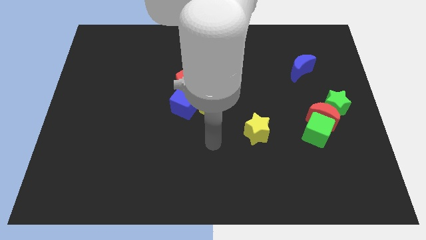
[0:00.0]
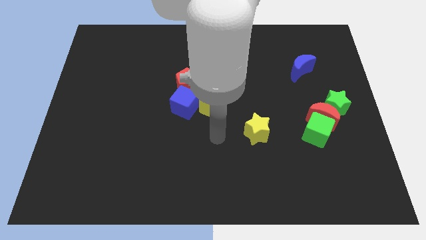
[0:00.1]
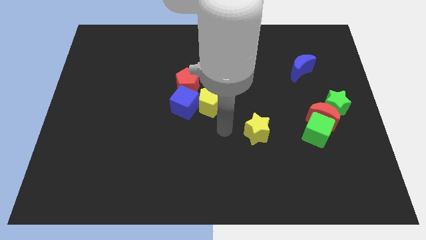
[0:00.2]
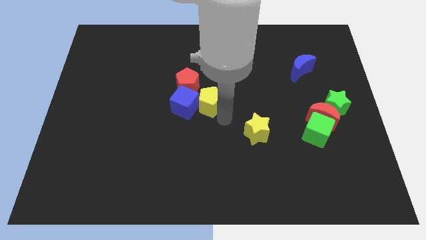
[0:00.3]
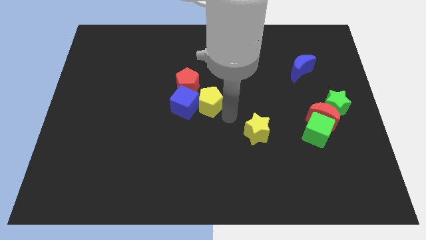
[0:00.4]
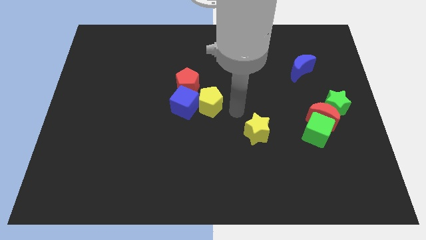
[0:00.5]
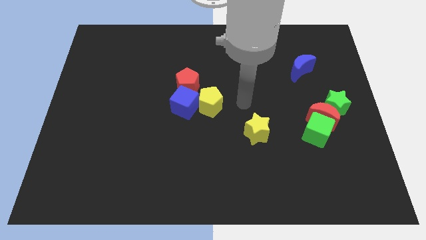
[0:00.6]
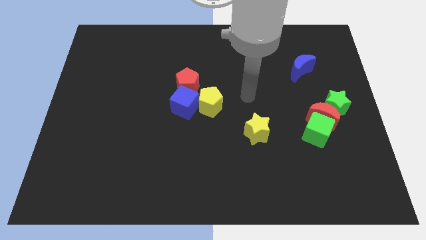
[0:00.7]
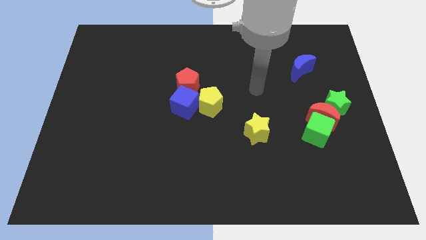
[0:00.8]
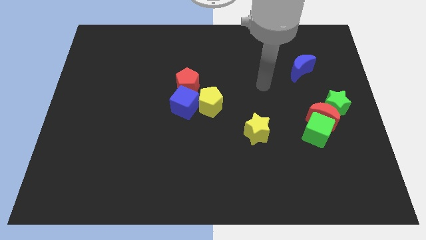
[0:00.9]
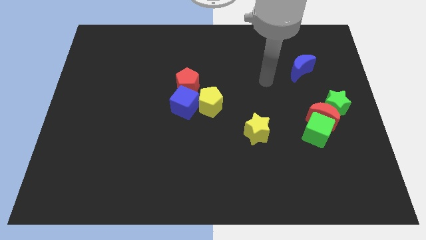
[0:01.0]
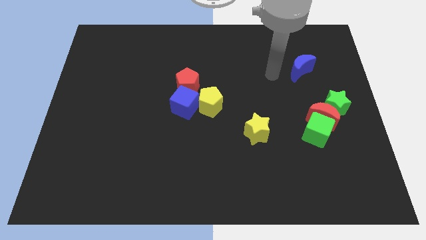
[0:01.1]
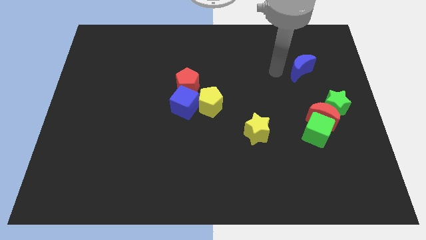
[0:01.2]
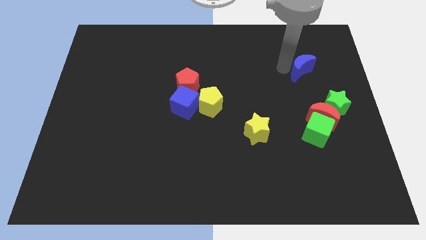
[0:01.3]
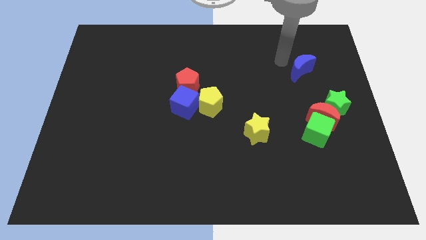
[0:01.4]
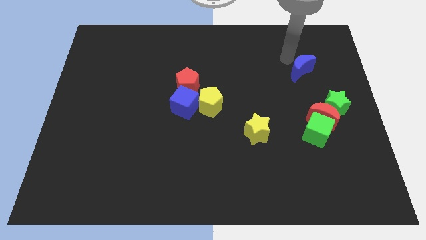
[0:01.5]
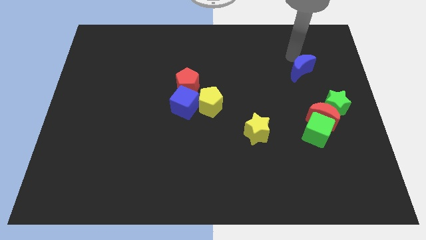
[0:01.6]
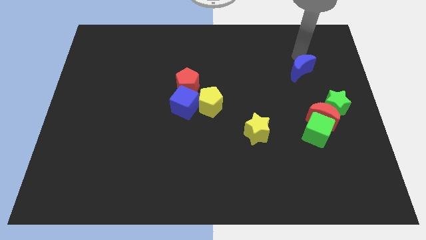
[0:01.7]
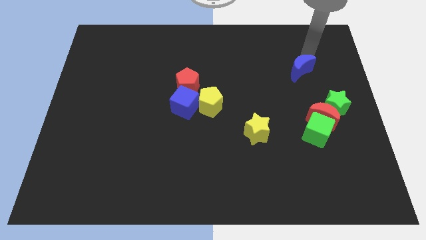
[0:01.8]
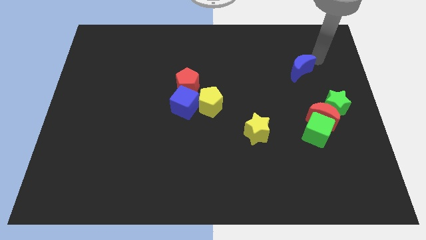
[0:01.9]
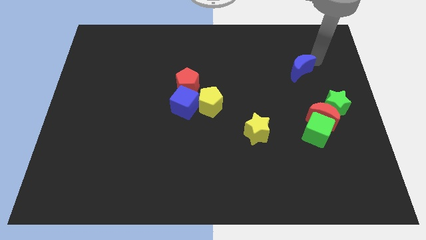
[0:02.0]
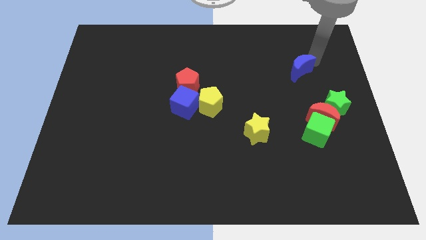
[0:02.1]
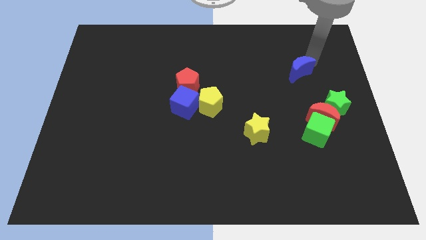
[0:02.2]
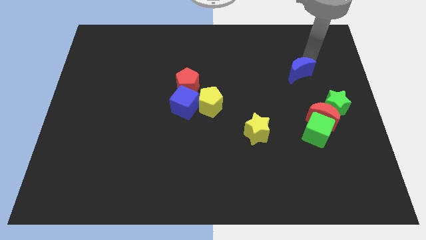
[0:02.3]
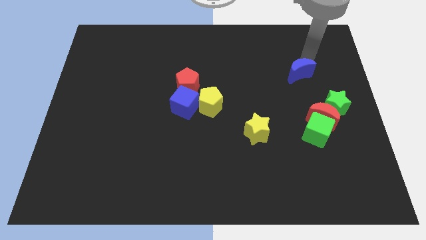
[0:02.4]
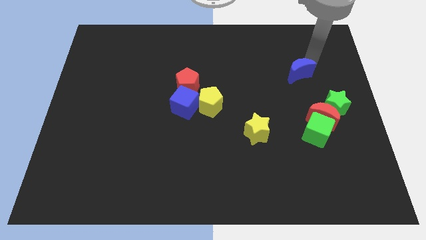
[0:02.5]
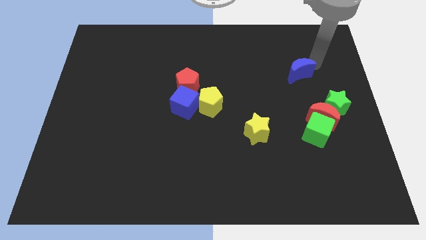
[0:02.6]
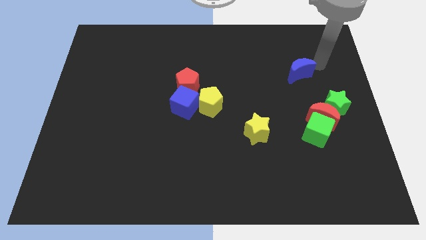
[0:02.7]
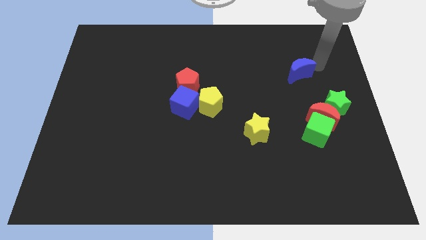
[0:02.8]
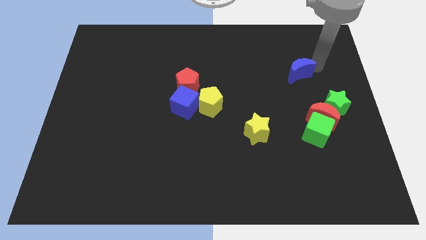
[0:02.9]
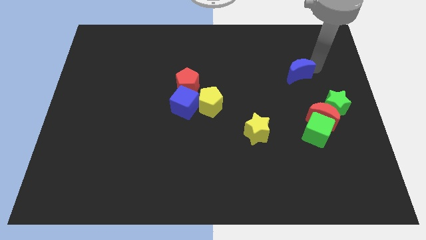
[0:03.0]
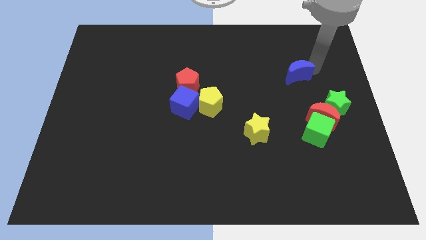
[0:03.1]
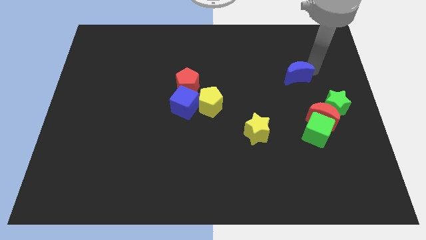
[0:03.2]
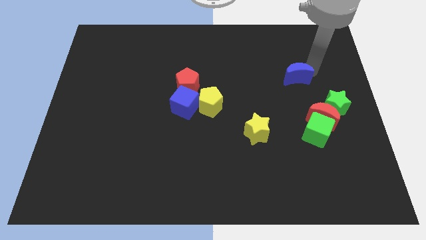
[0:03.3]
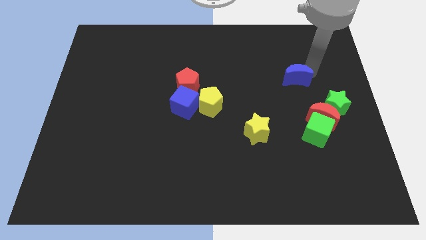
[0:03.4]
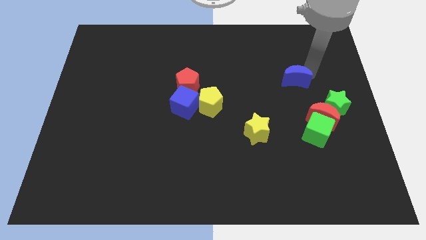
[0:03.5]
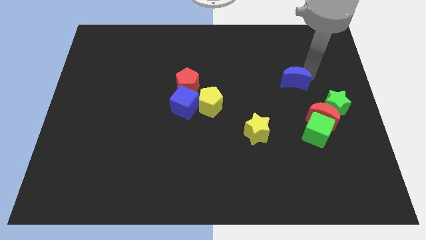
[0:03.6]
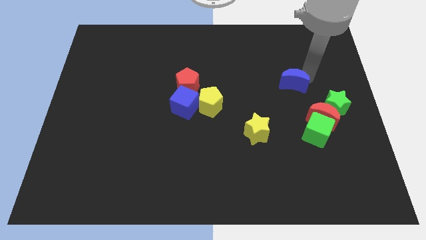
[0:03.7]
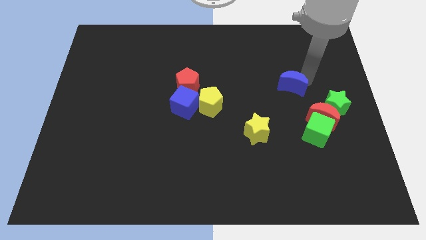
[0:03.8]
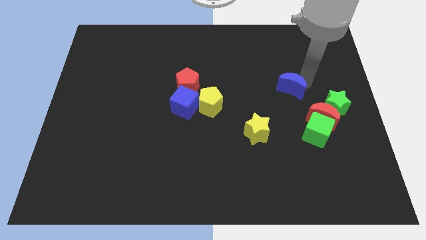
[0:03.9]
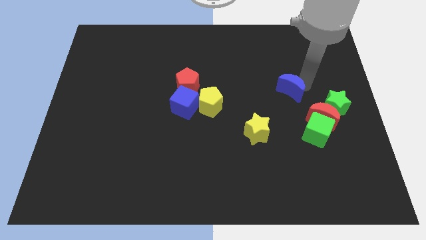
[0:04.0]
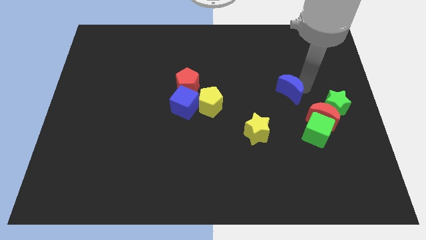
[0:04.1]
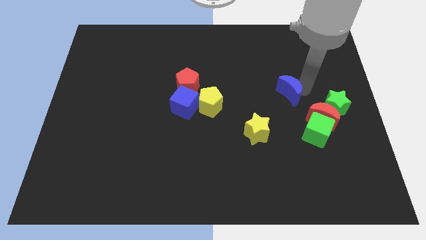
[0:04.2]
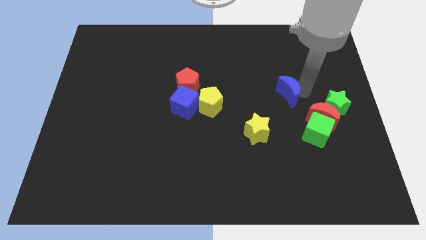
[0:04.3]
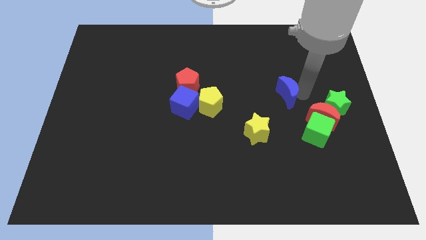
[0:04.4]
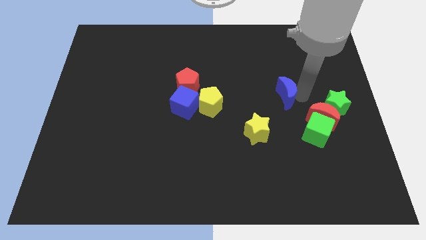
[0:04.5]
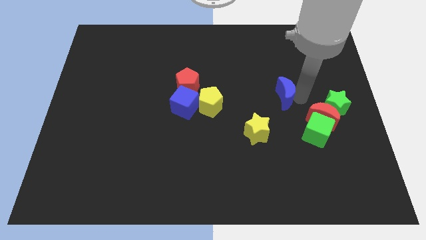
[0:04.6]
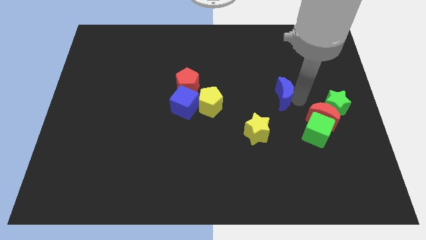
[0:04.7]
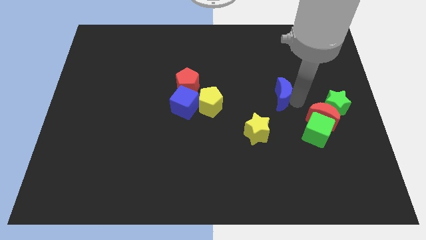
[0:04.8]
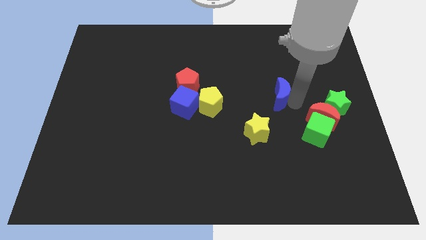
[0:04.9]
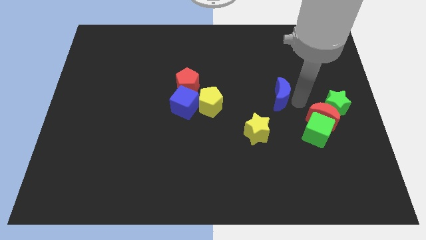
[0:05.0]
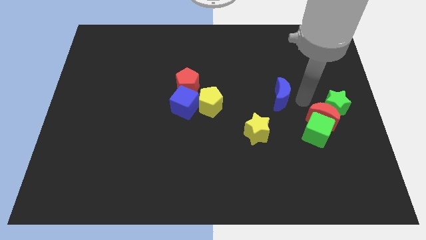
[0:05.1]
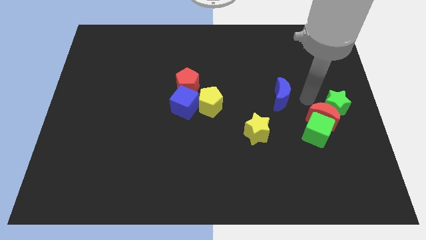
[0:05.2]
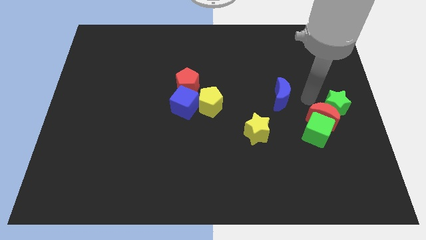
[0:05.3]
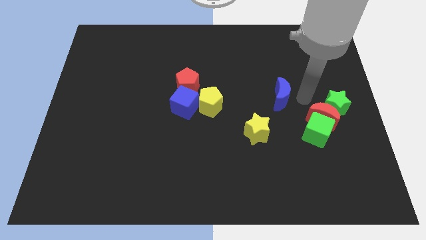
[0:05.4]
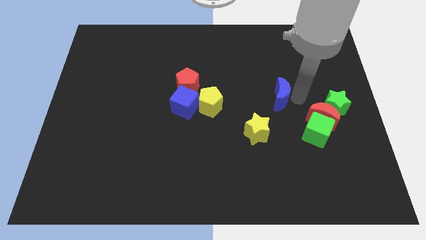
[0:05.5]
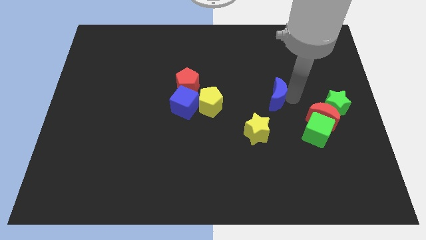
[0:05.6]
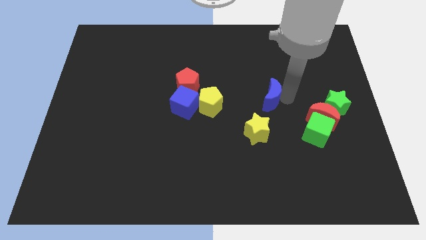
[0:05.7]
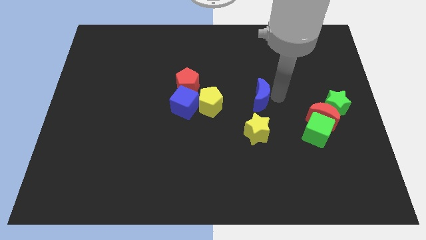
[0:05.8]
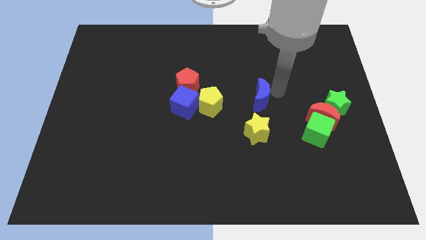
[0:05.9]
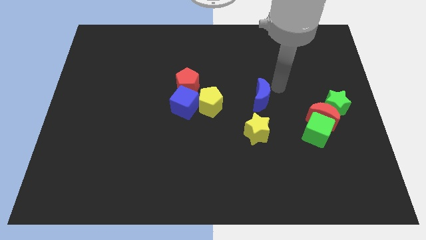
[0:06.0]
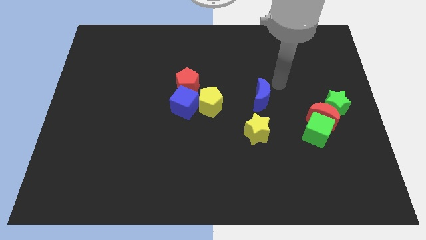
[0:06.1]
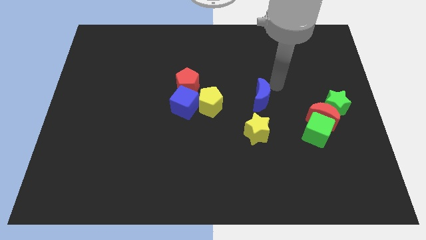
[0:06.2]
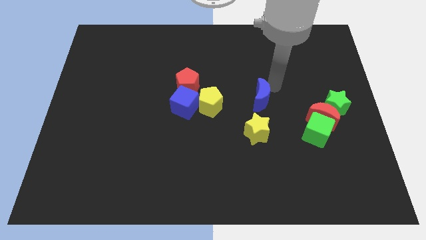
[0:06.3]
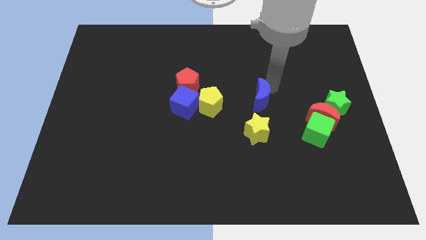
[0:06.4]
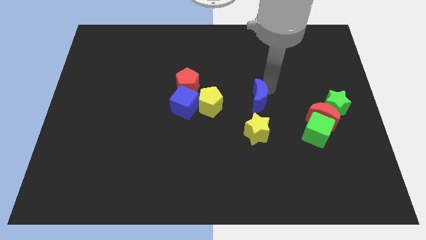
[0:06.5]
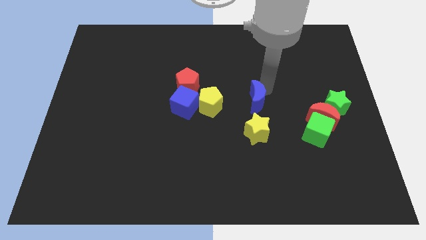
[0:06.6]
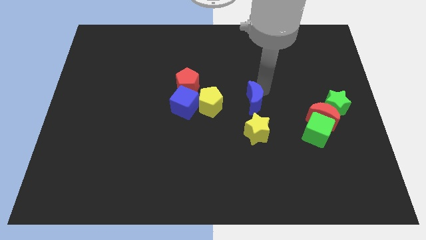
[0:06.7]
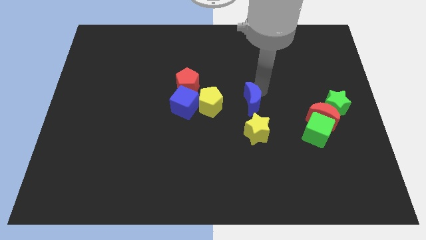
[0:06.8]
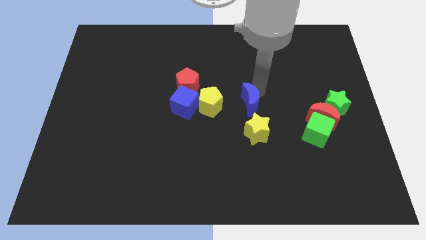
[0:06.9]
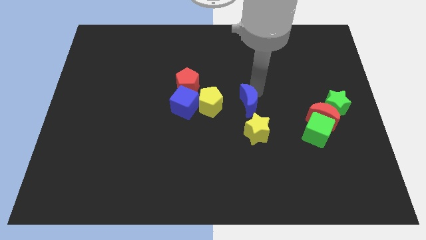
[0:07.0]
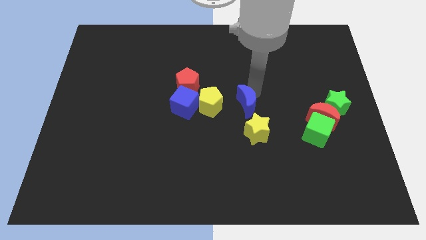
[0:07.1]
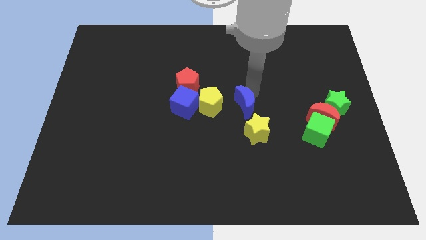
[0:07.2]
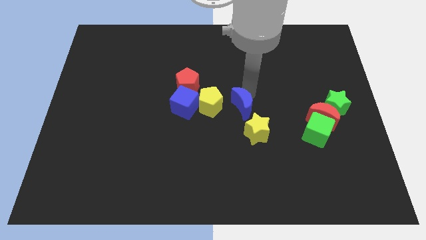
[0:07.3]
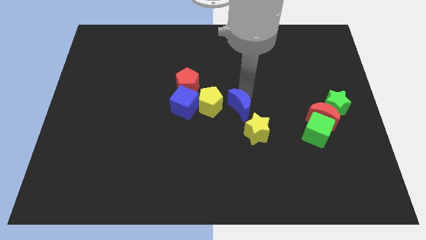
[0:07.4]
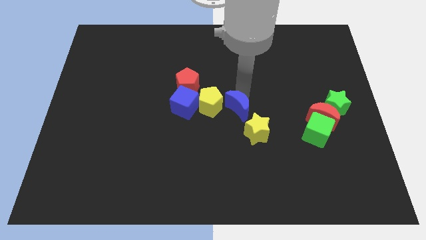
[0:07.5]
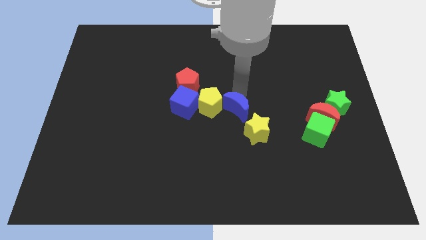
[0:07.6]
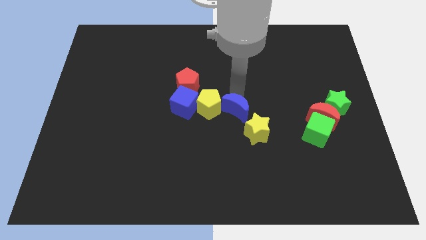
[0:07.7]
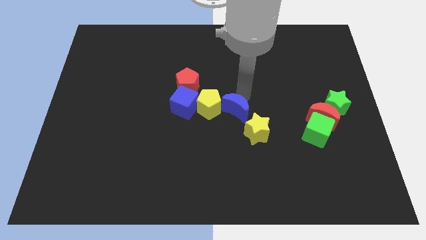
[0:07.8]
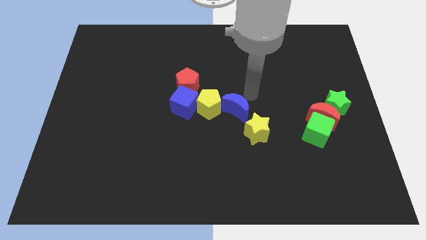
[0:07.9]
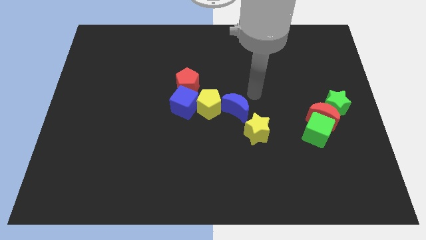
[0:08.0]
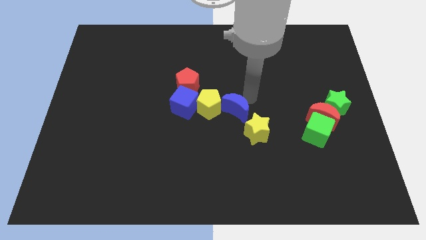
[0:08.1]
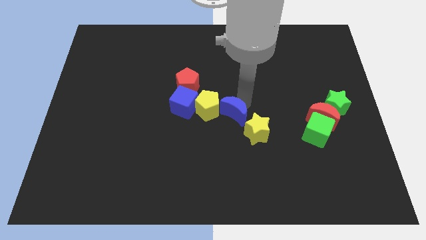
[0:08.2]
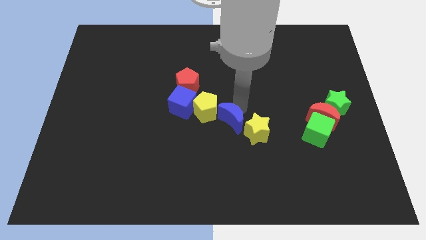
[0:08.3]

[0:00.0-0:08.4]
put the blue moon left of the yellow star
